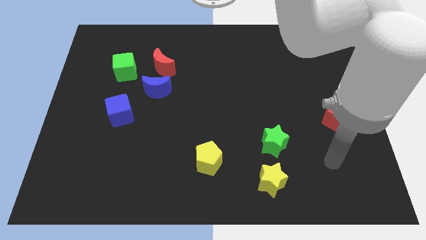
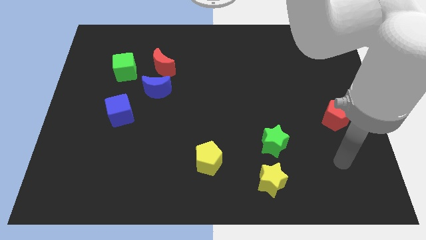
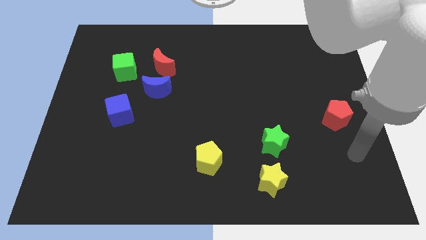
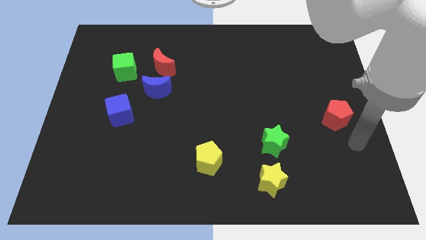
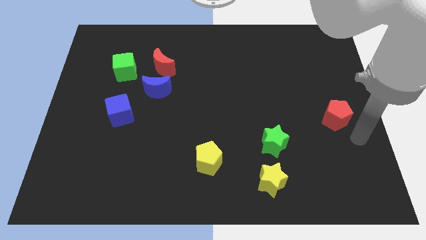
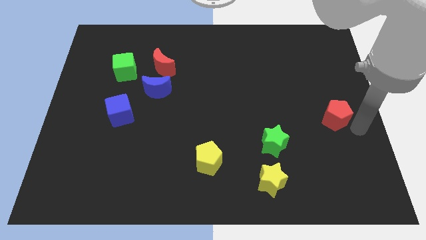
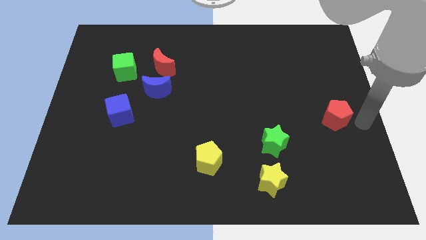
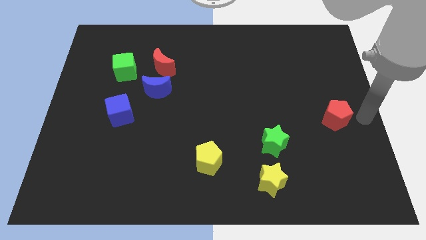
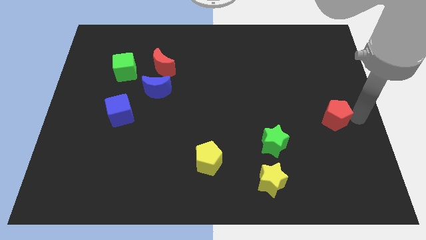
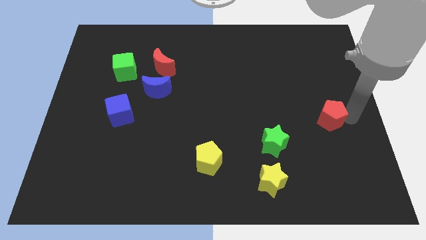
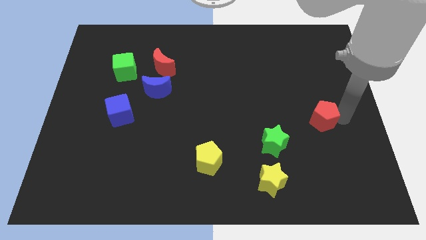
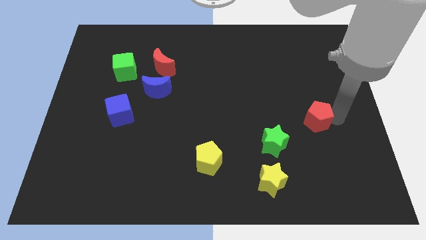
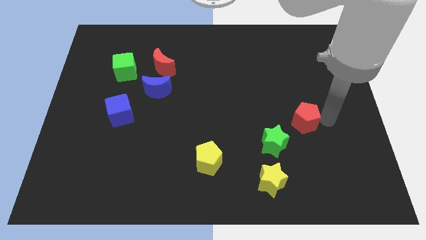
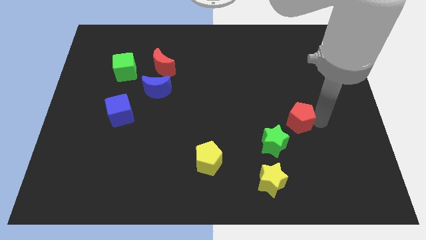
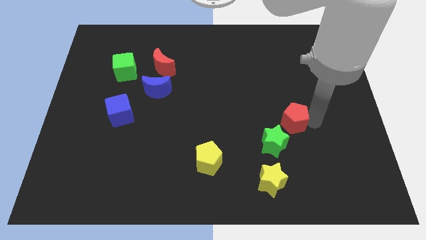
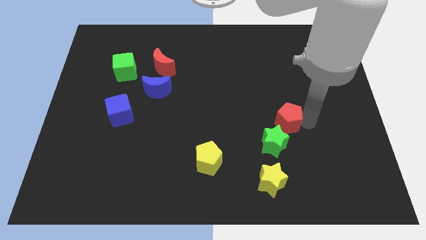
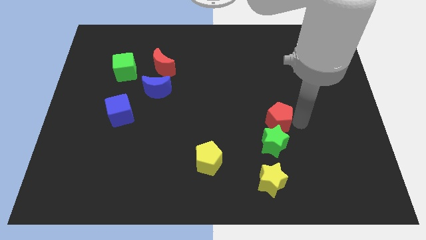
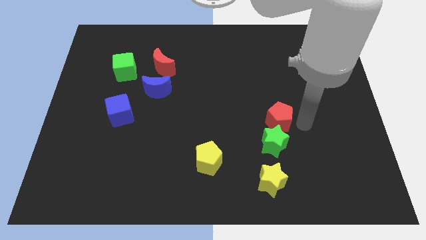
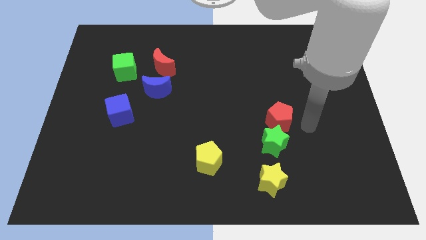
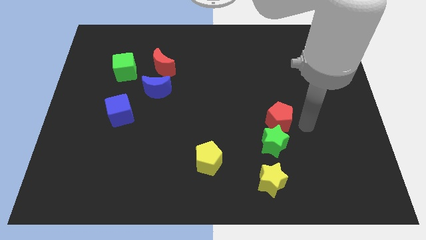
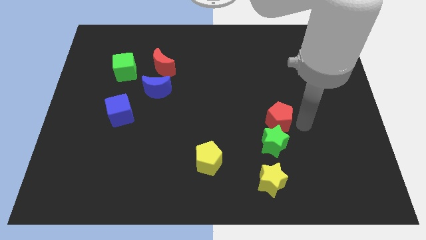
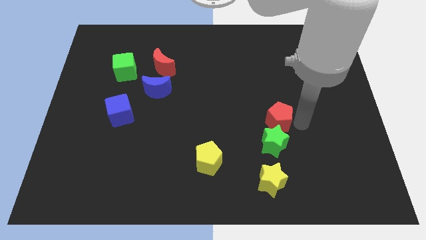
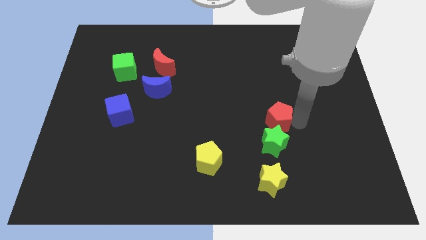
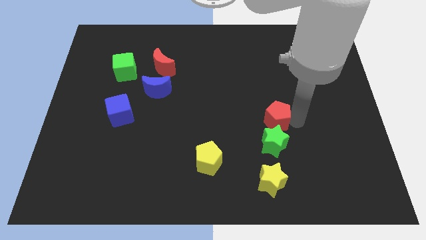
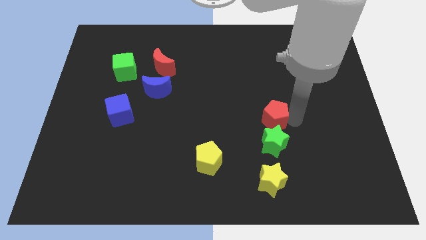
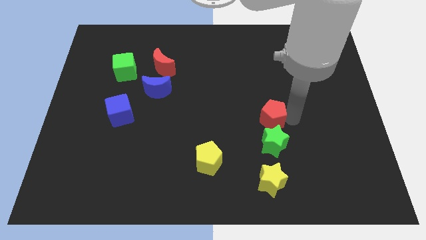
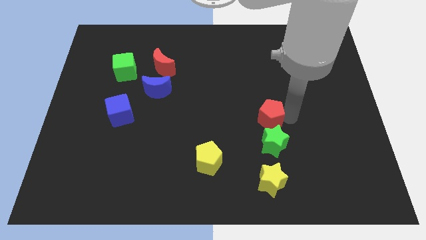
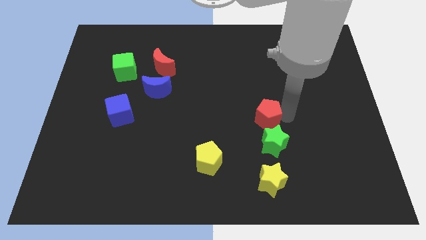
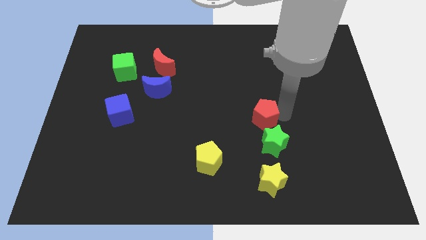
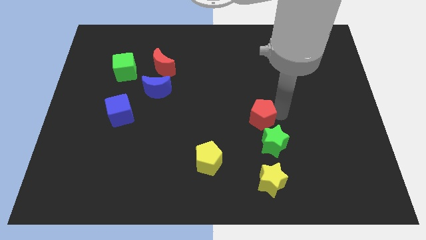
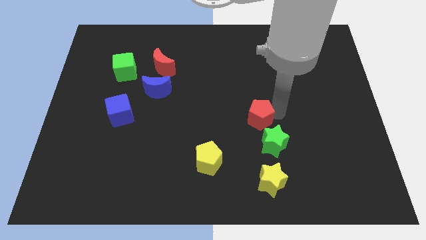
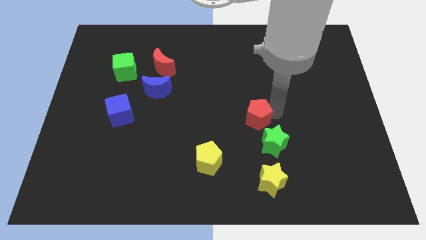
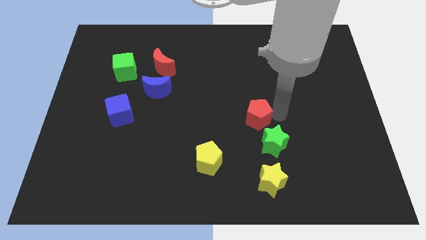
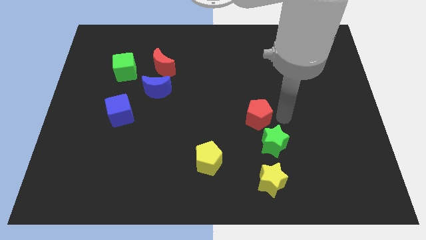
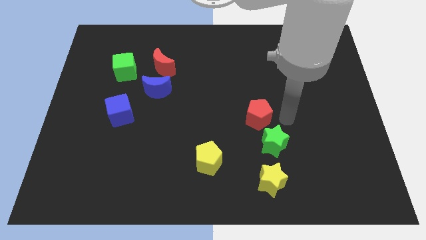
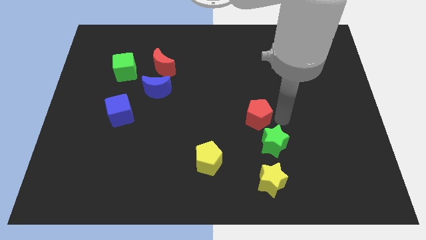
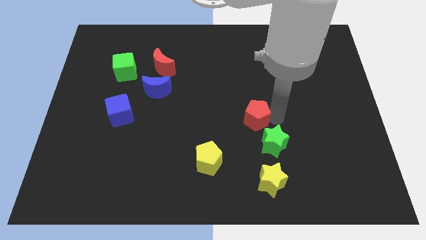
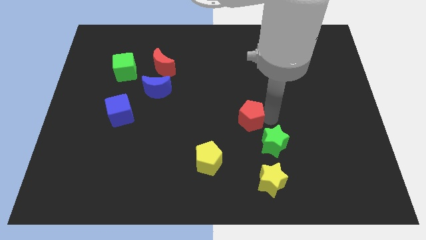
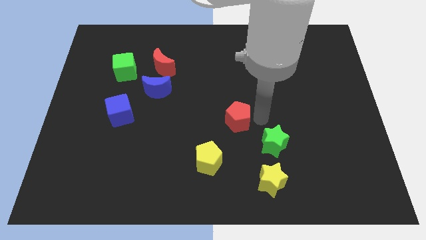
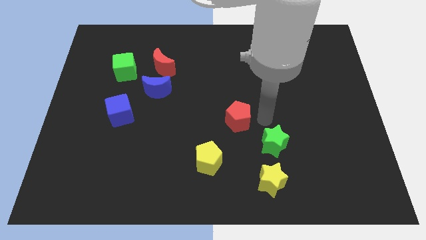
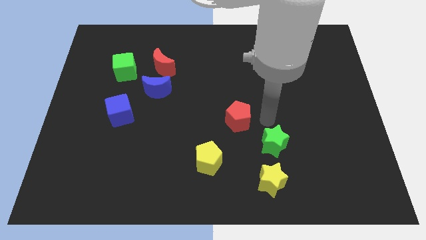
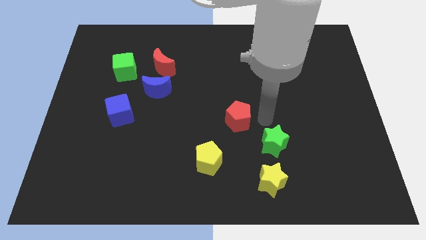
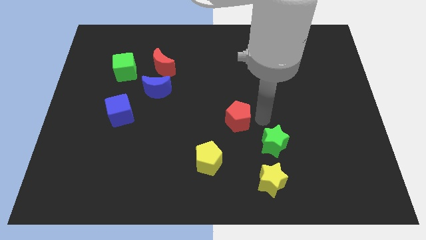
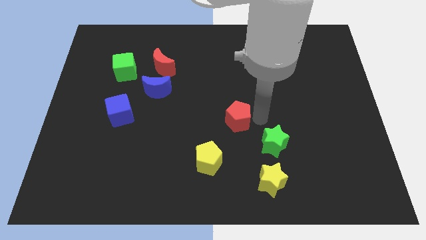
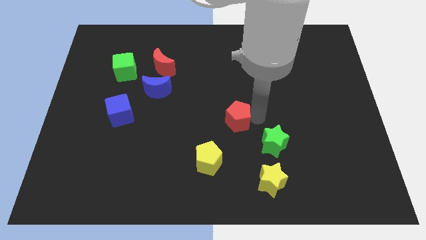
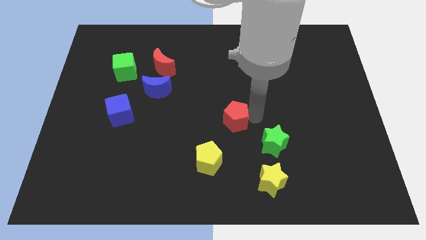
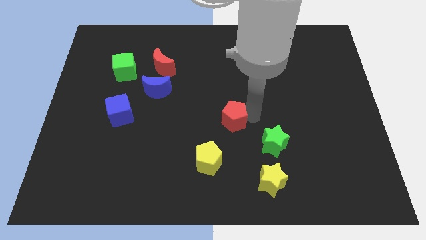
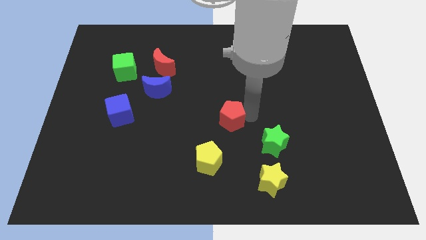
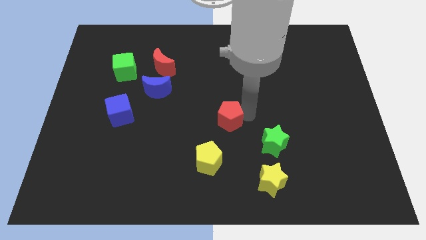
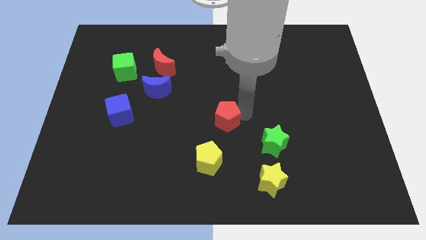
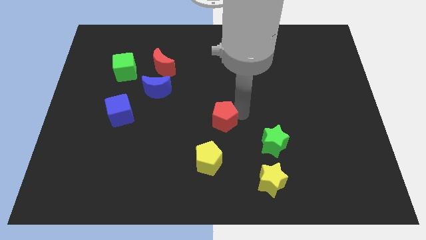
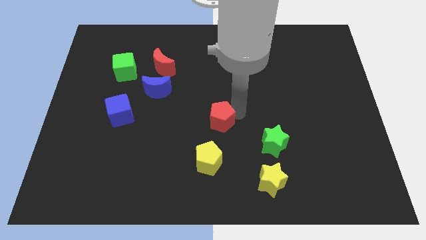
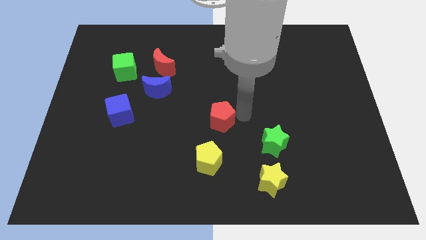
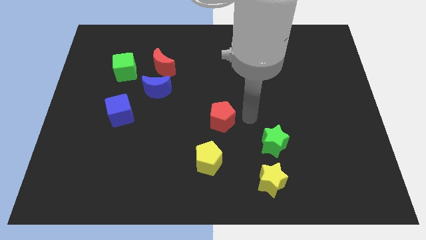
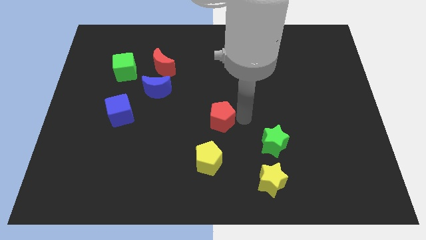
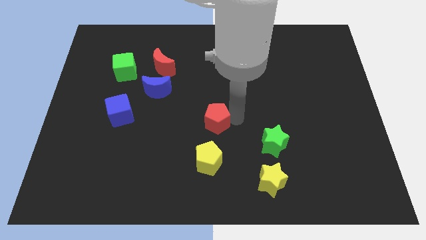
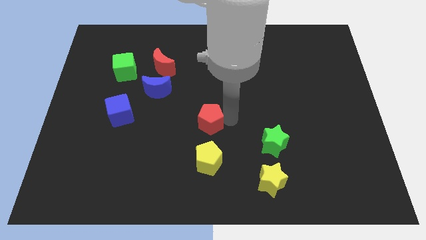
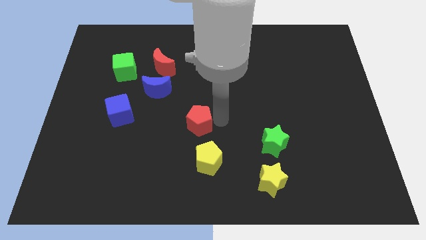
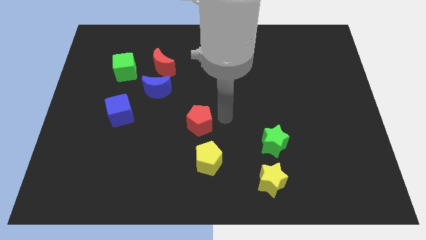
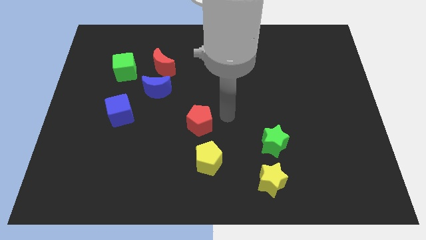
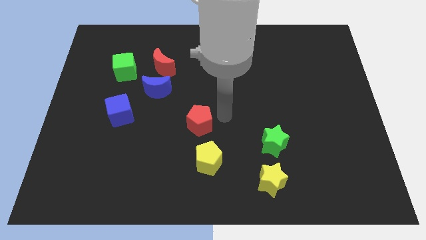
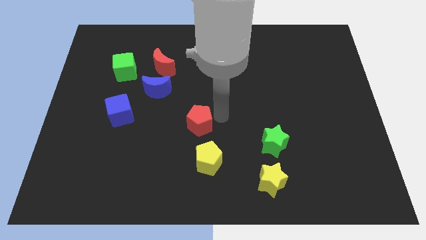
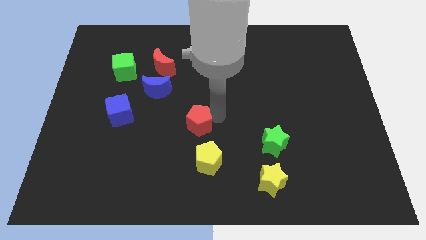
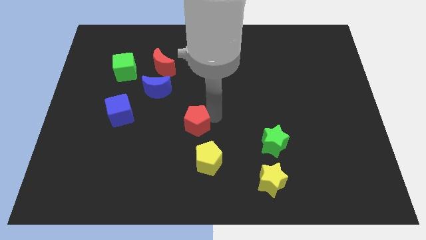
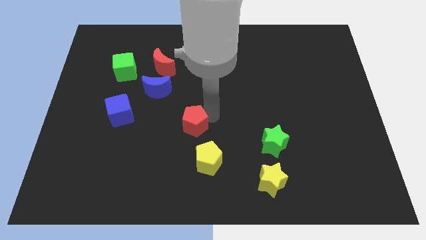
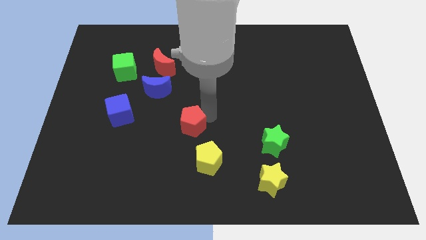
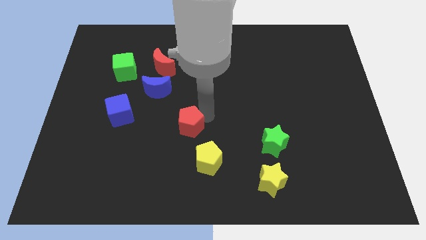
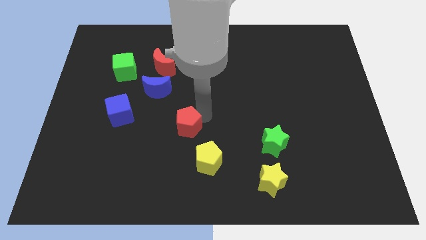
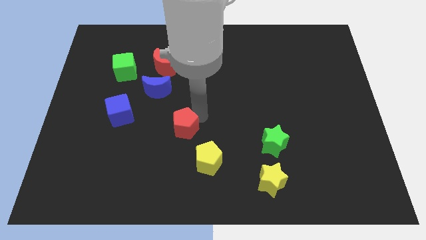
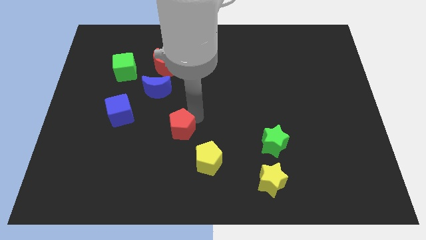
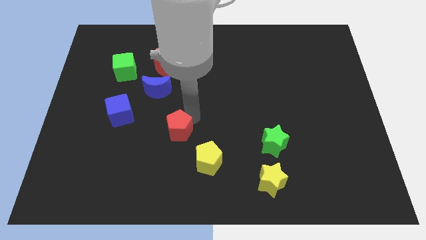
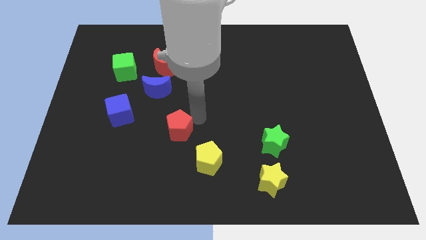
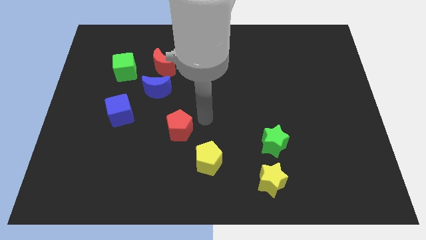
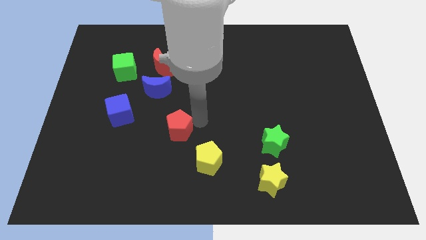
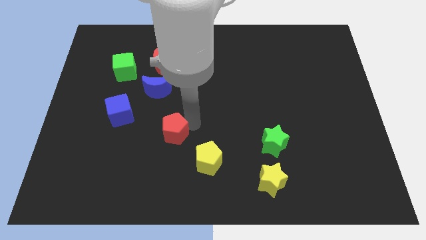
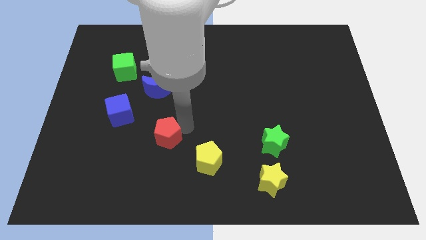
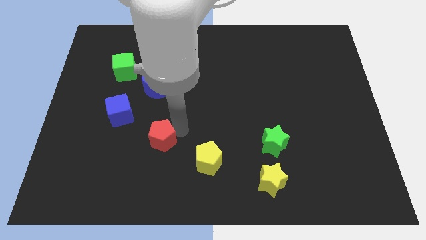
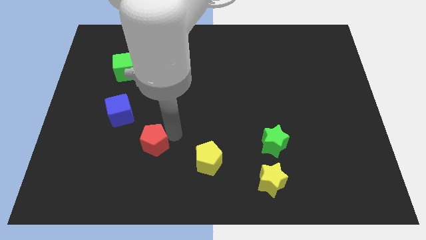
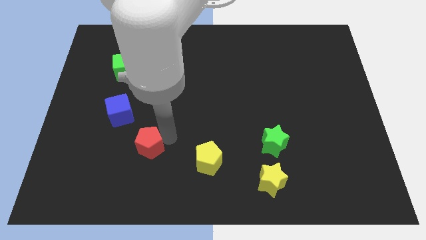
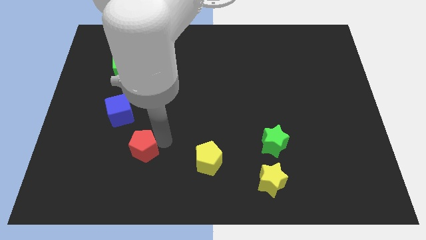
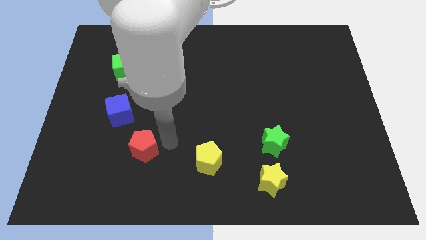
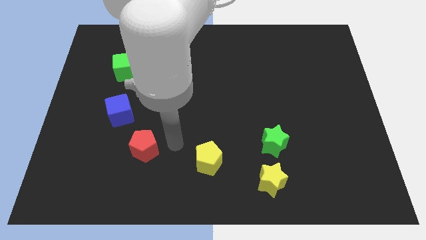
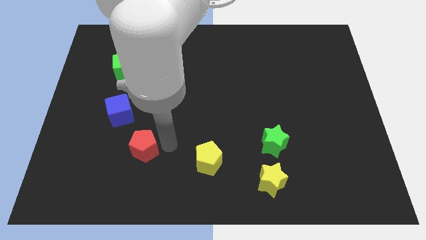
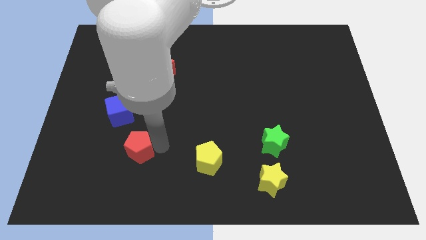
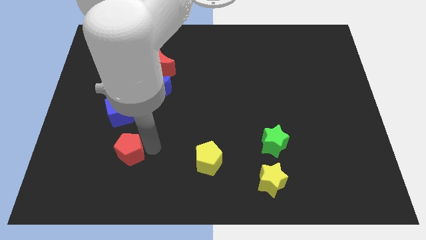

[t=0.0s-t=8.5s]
put the red pentagon below the blue cube
